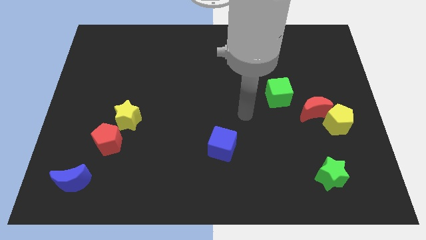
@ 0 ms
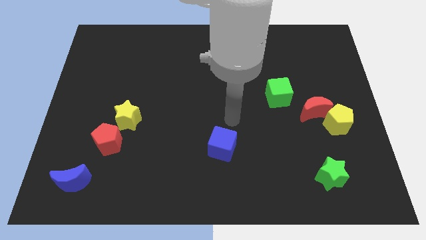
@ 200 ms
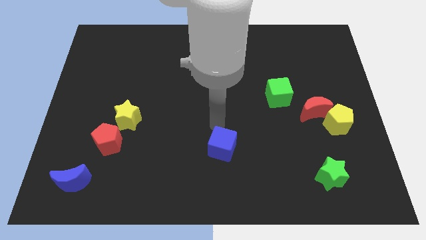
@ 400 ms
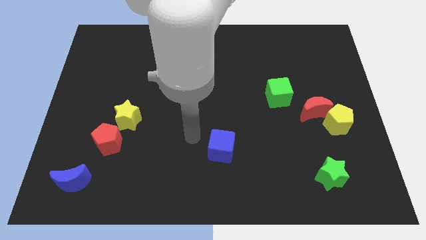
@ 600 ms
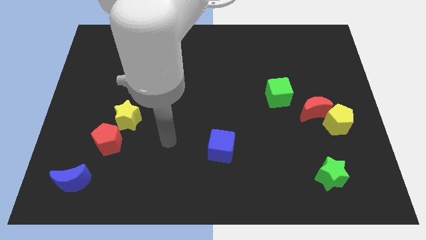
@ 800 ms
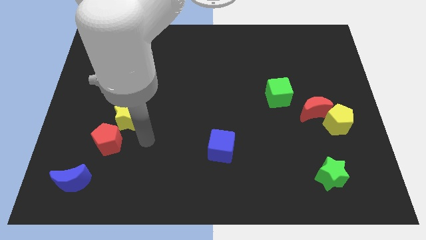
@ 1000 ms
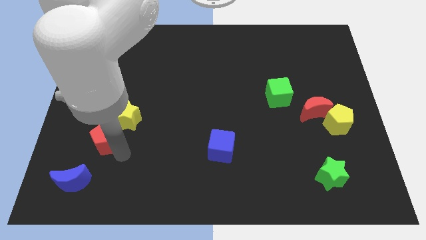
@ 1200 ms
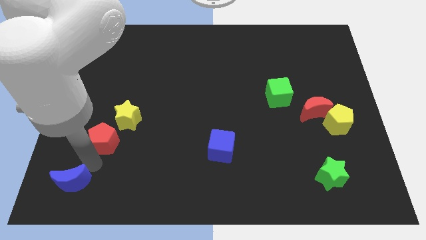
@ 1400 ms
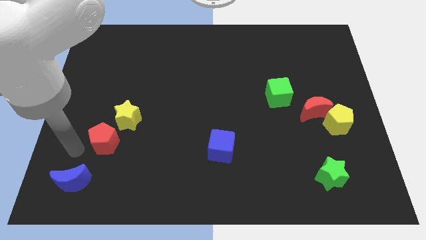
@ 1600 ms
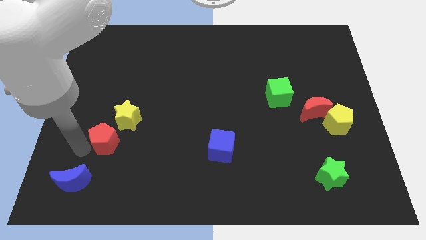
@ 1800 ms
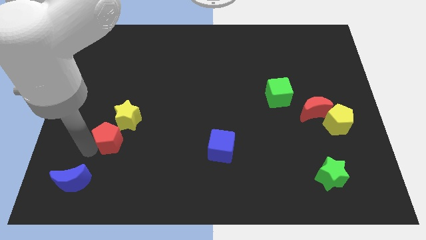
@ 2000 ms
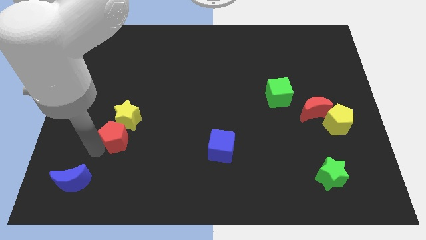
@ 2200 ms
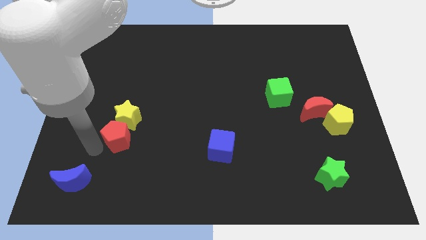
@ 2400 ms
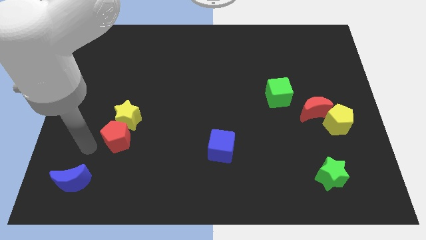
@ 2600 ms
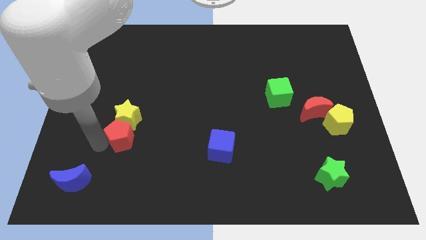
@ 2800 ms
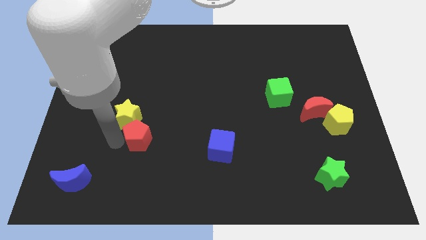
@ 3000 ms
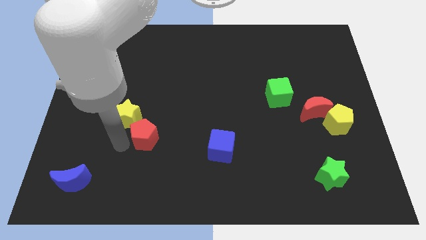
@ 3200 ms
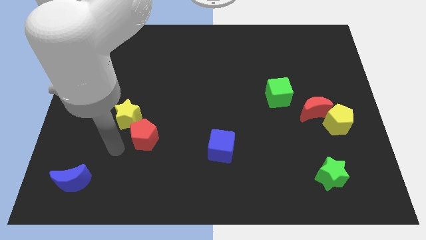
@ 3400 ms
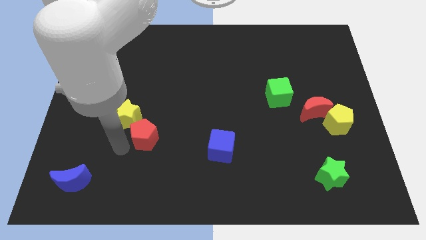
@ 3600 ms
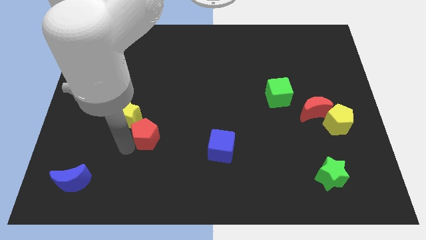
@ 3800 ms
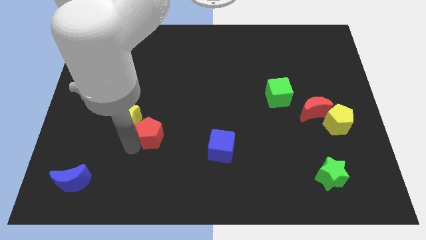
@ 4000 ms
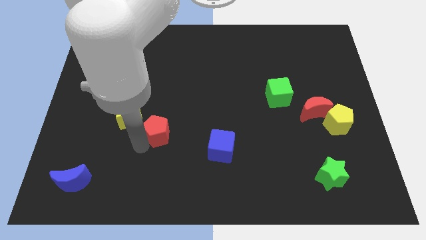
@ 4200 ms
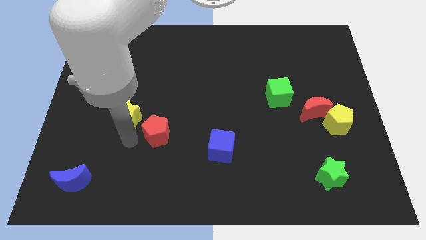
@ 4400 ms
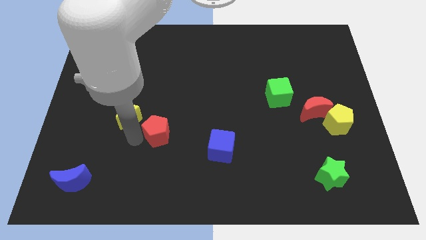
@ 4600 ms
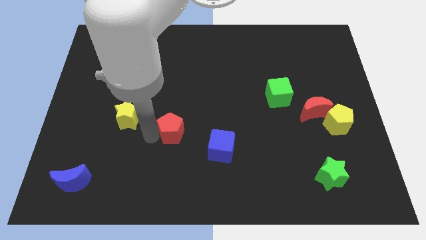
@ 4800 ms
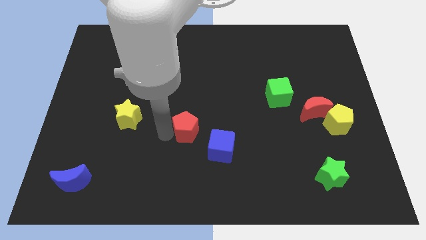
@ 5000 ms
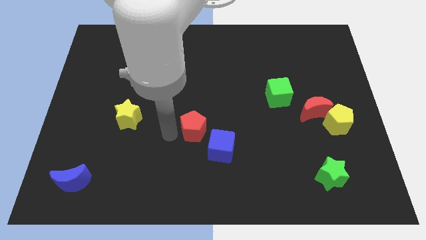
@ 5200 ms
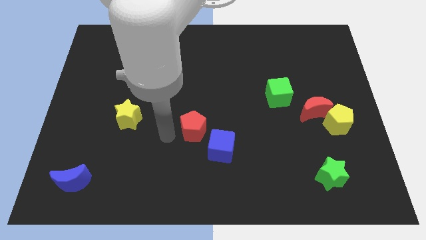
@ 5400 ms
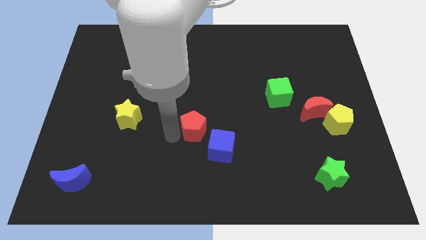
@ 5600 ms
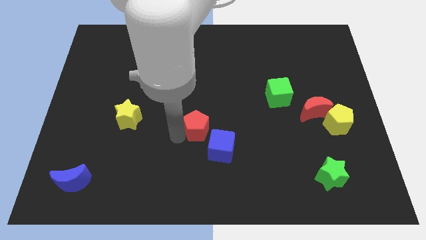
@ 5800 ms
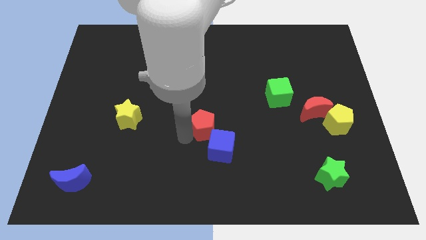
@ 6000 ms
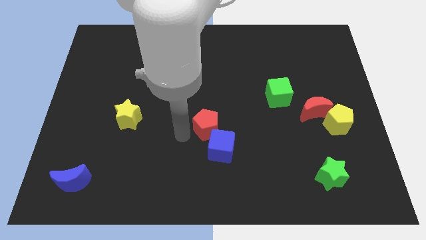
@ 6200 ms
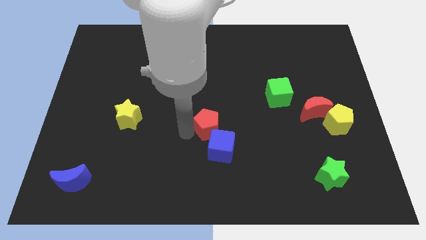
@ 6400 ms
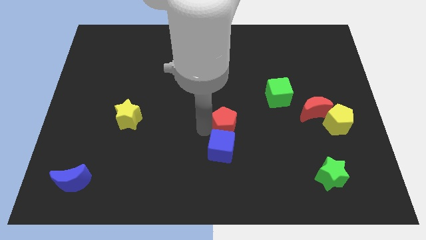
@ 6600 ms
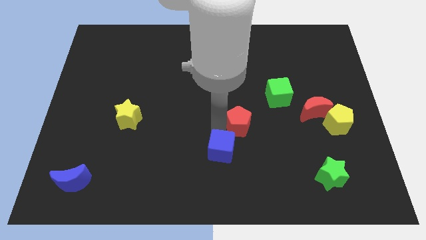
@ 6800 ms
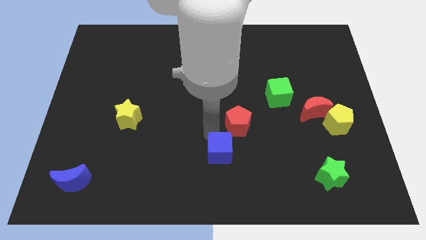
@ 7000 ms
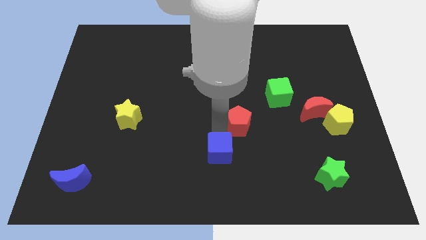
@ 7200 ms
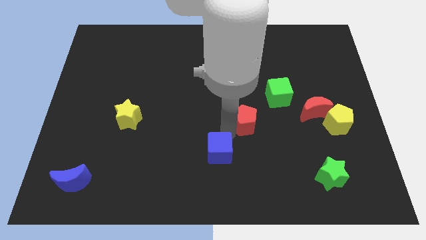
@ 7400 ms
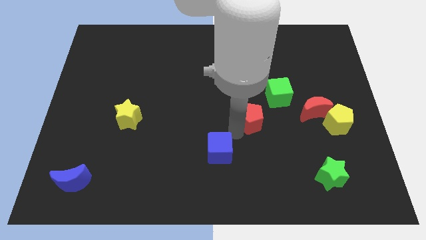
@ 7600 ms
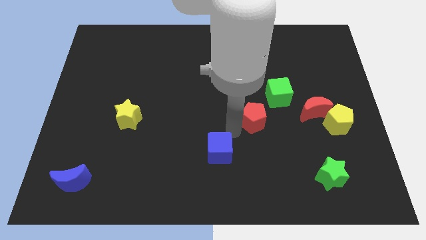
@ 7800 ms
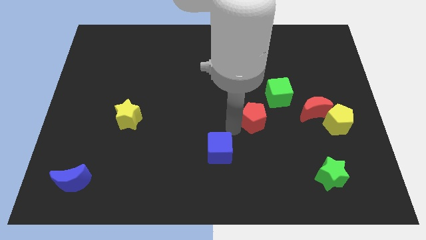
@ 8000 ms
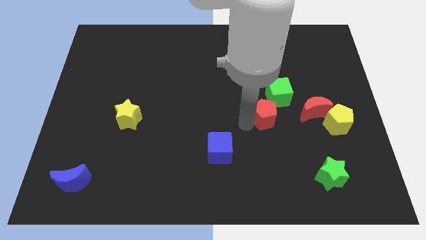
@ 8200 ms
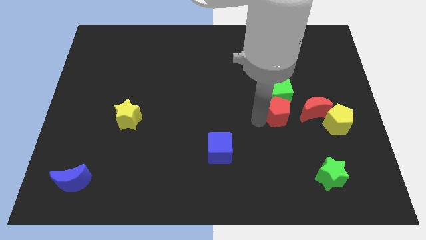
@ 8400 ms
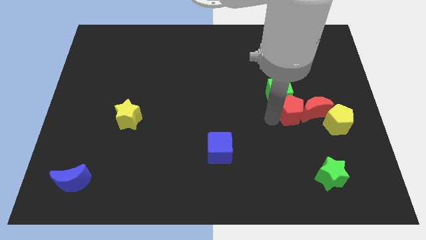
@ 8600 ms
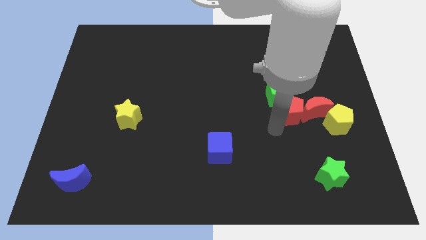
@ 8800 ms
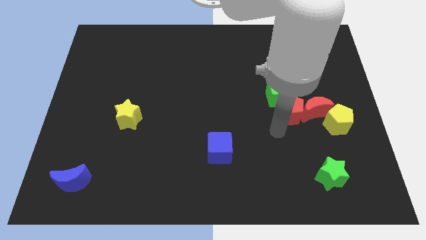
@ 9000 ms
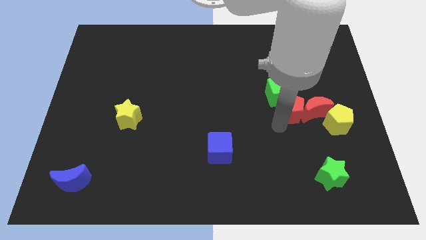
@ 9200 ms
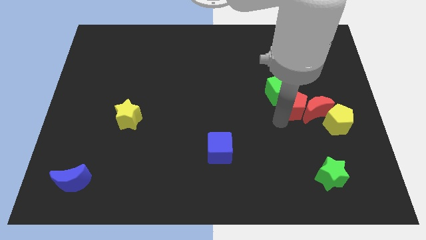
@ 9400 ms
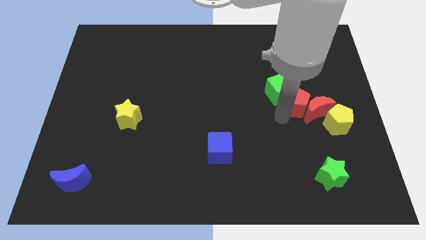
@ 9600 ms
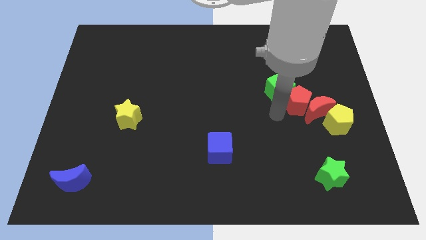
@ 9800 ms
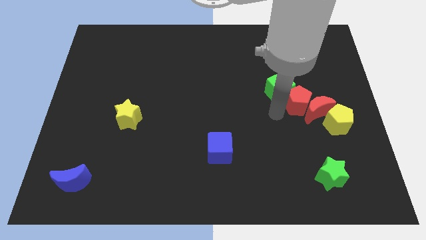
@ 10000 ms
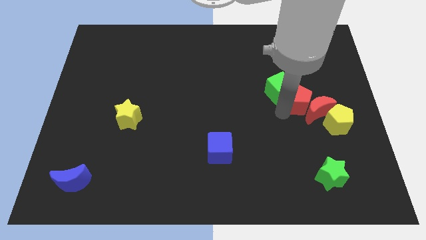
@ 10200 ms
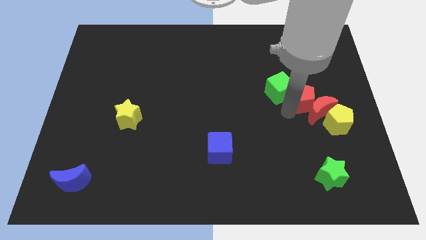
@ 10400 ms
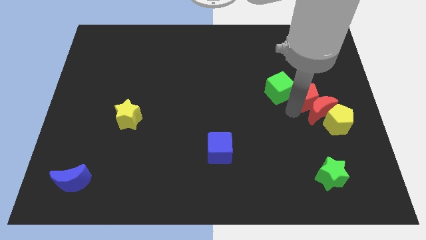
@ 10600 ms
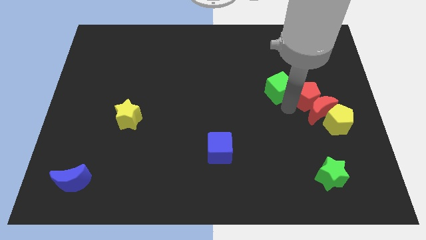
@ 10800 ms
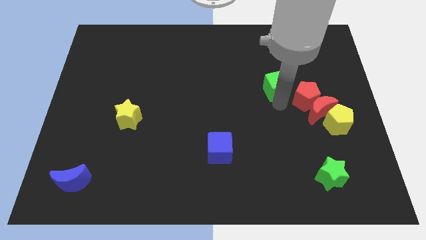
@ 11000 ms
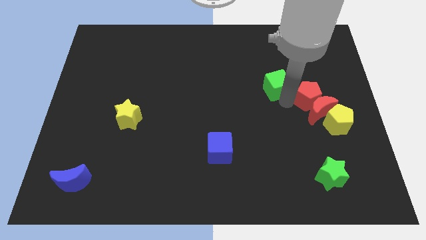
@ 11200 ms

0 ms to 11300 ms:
put the red pentagon to the top right side of the red moon

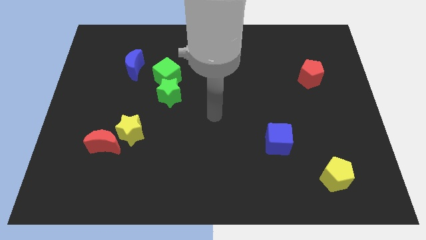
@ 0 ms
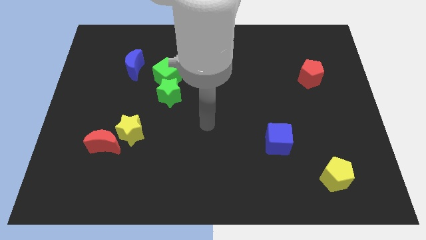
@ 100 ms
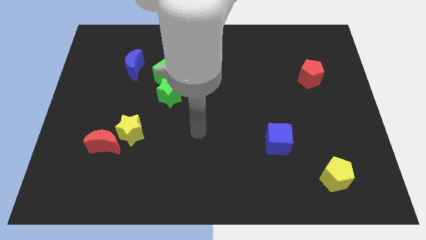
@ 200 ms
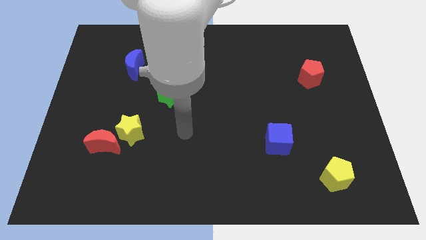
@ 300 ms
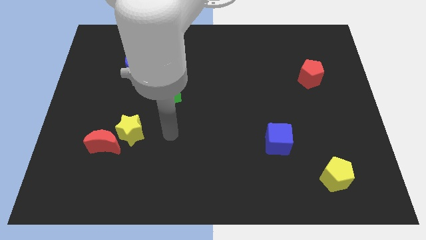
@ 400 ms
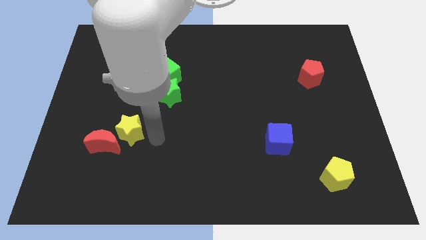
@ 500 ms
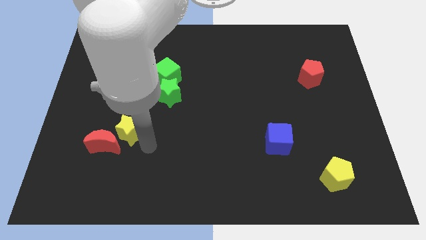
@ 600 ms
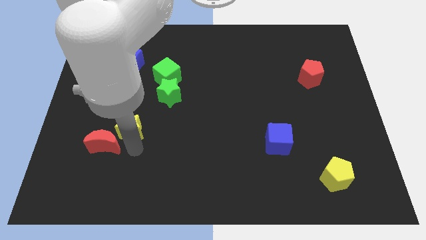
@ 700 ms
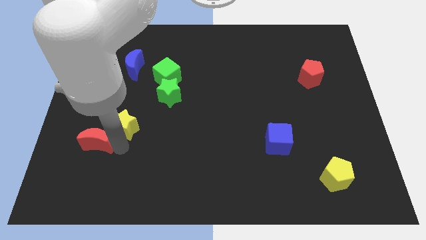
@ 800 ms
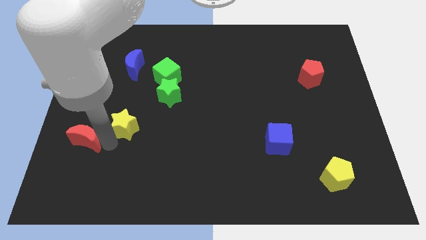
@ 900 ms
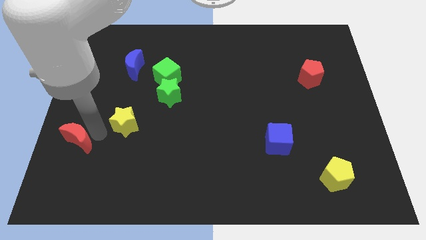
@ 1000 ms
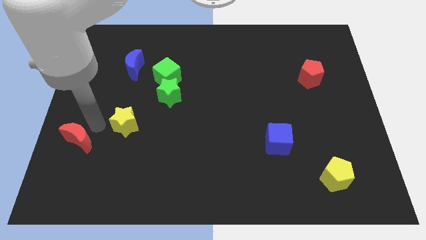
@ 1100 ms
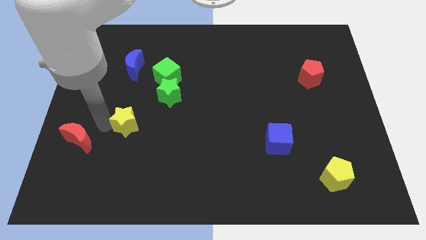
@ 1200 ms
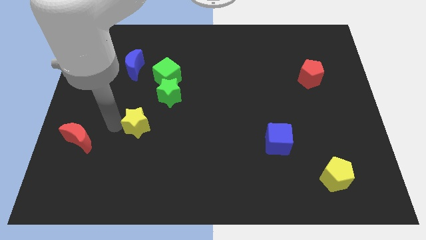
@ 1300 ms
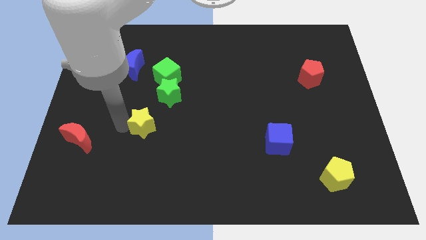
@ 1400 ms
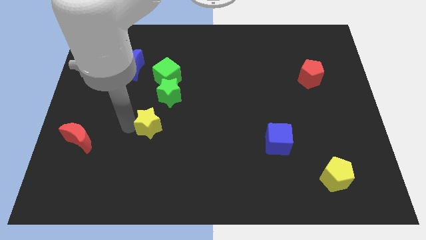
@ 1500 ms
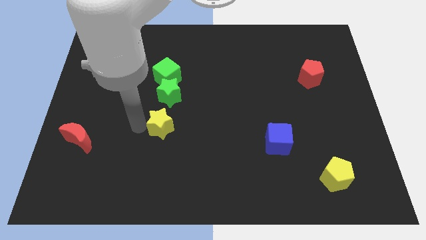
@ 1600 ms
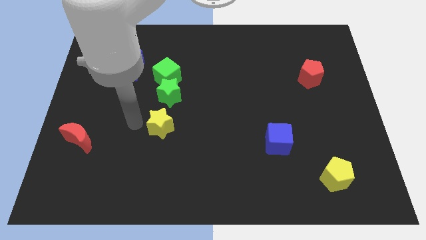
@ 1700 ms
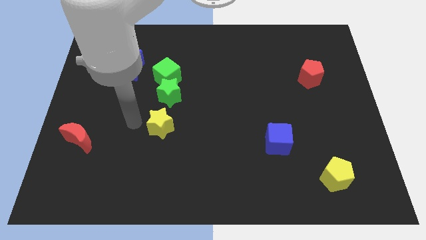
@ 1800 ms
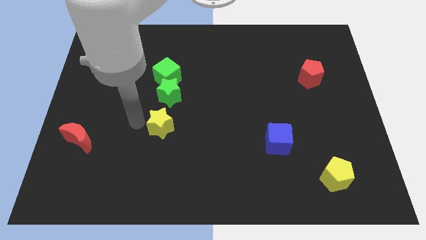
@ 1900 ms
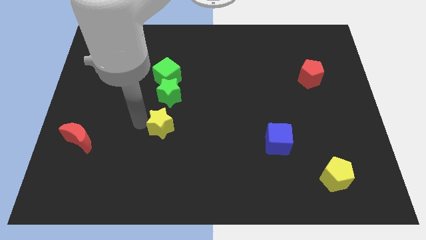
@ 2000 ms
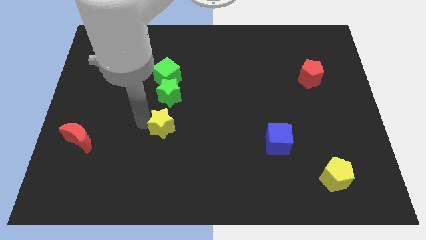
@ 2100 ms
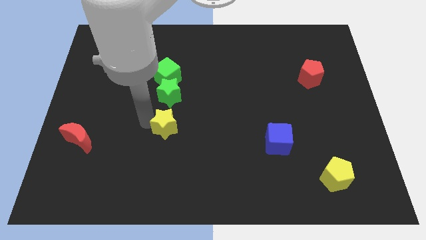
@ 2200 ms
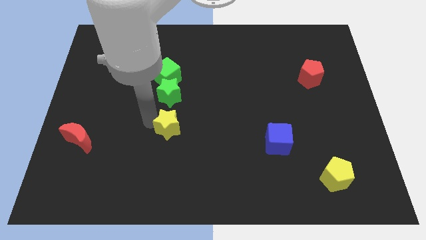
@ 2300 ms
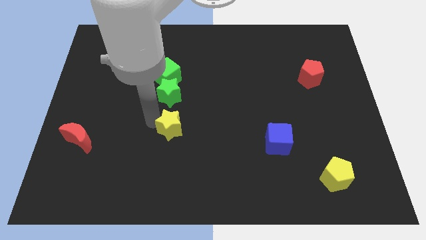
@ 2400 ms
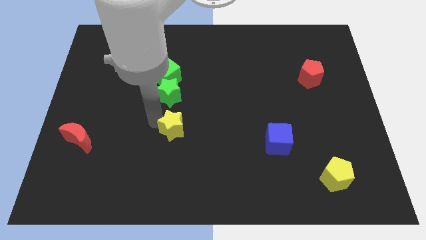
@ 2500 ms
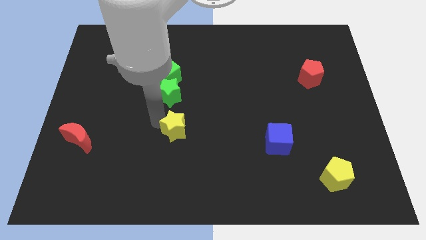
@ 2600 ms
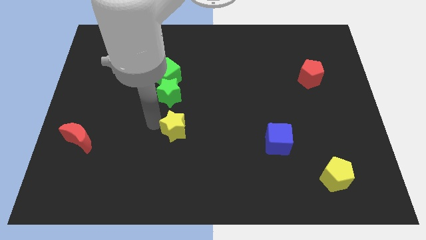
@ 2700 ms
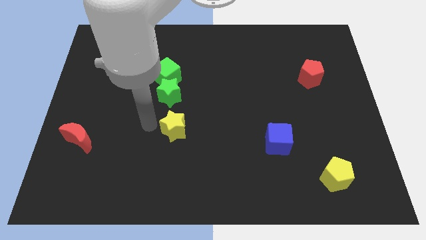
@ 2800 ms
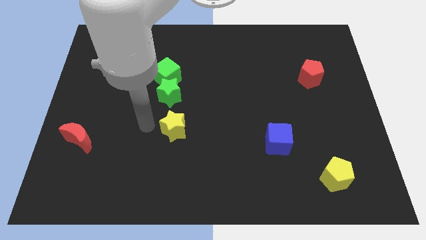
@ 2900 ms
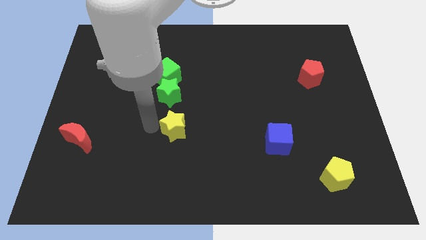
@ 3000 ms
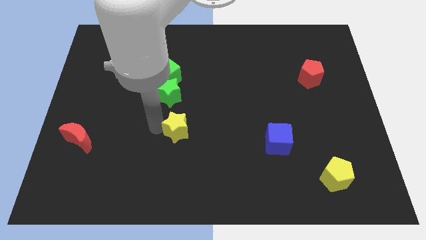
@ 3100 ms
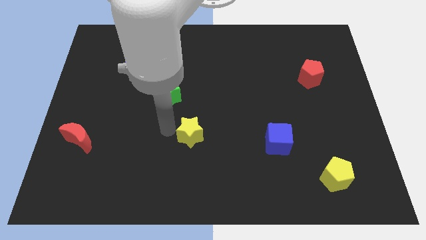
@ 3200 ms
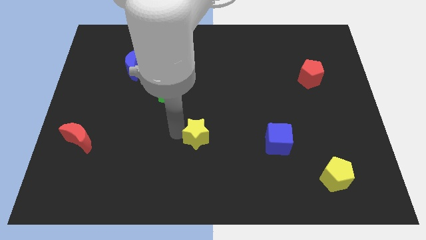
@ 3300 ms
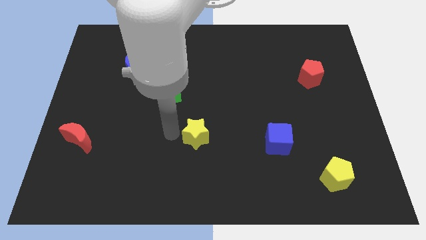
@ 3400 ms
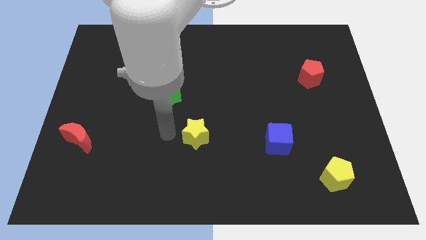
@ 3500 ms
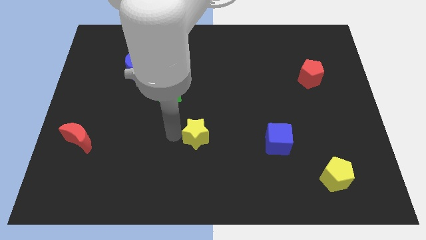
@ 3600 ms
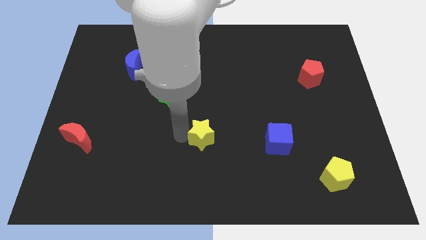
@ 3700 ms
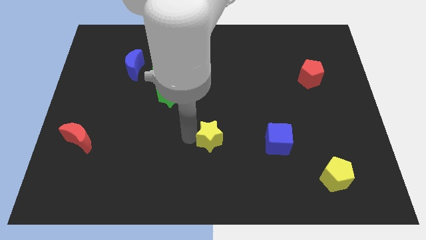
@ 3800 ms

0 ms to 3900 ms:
push the yellow star just left of the blue cube
